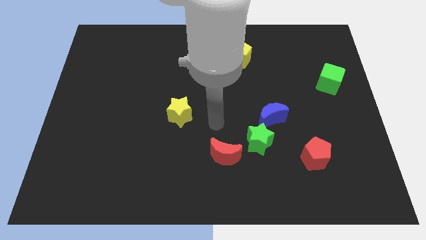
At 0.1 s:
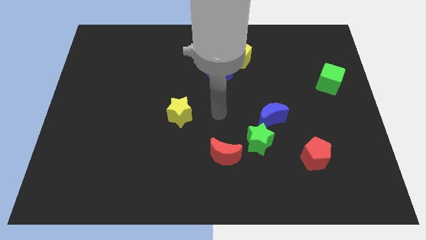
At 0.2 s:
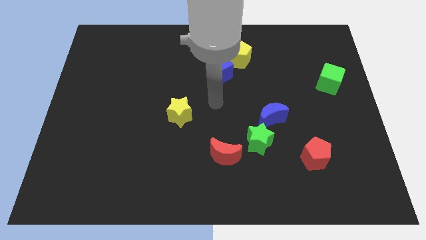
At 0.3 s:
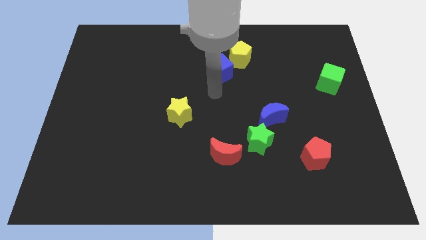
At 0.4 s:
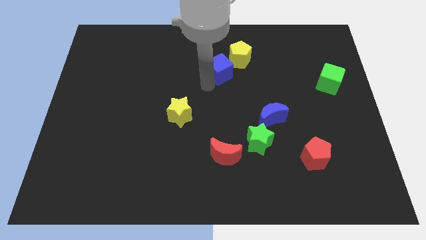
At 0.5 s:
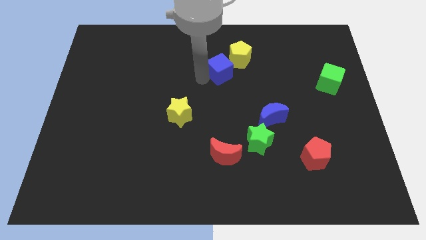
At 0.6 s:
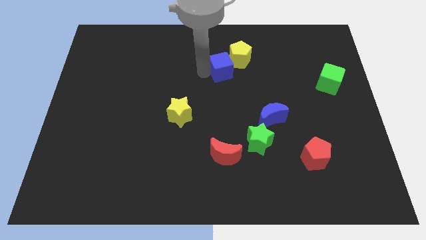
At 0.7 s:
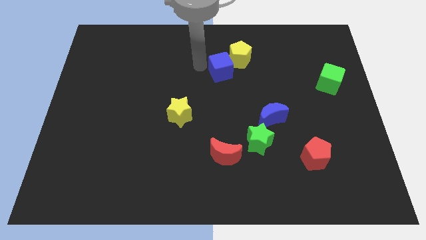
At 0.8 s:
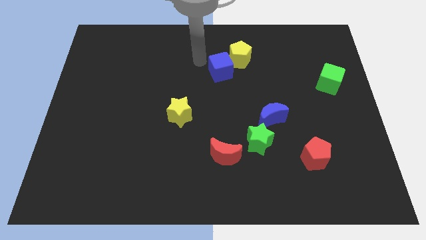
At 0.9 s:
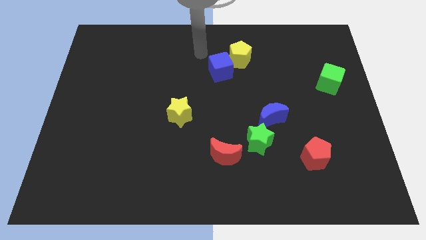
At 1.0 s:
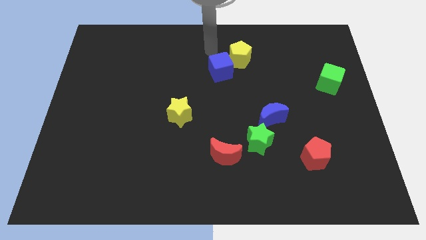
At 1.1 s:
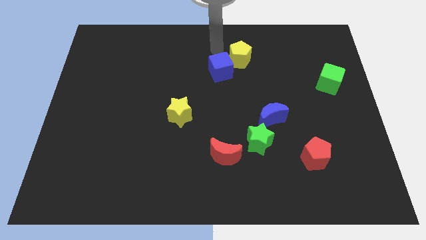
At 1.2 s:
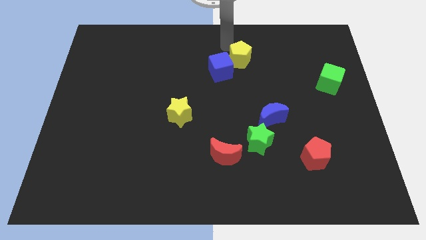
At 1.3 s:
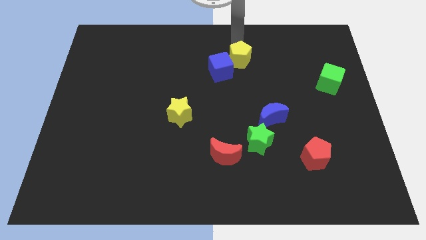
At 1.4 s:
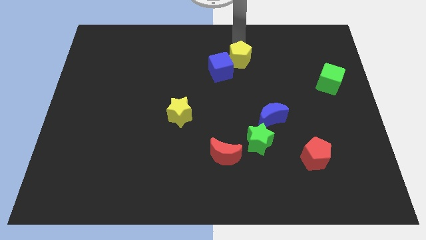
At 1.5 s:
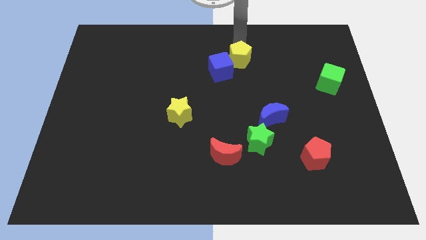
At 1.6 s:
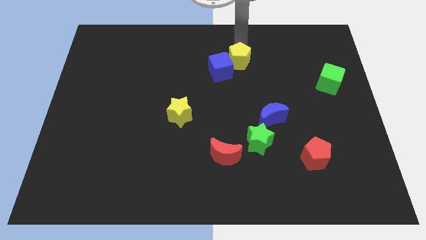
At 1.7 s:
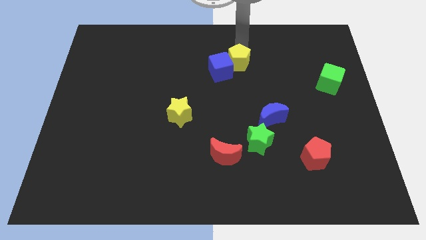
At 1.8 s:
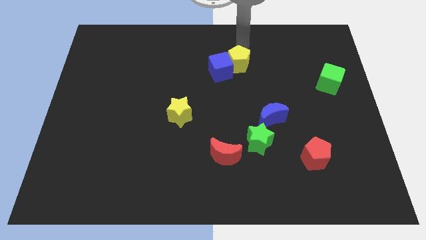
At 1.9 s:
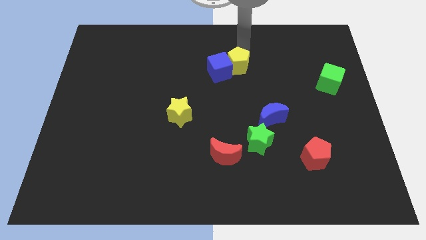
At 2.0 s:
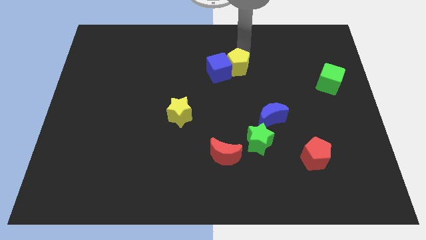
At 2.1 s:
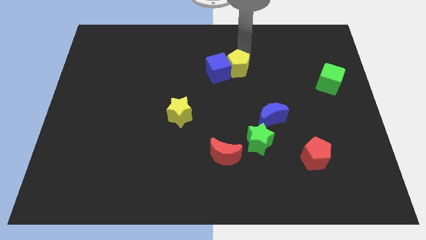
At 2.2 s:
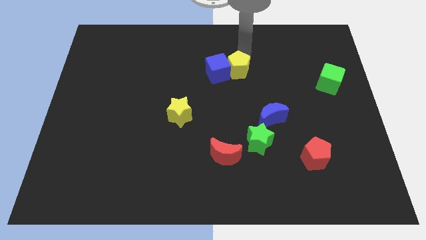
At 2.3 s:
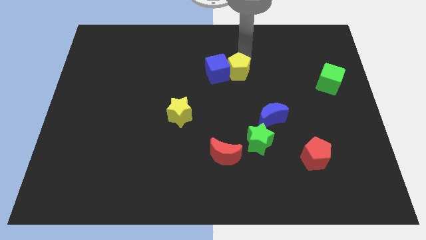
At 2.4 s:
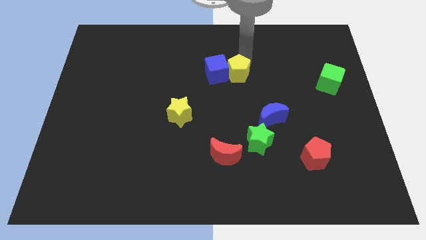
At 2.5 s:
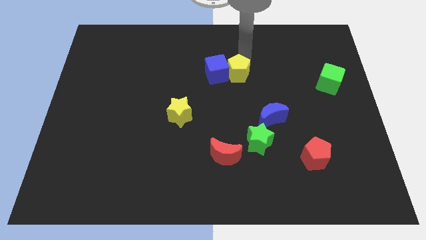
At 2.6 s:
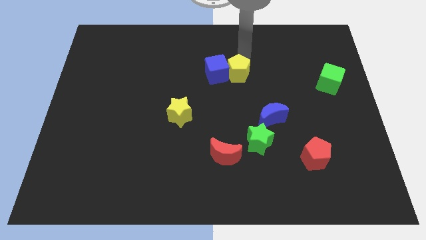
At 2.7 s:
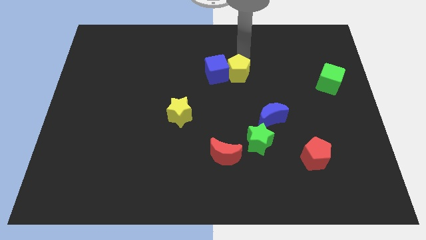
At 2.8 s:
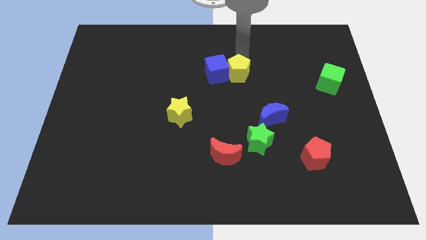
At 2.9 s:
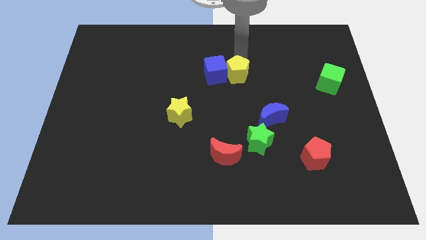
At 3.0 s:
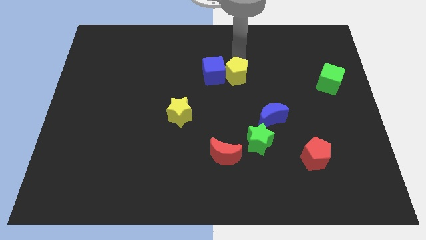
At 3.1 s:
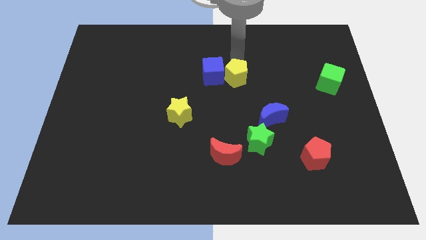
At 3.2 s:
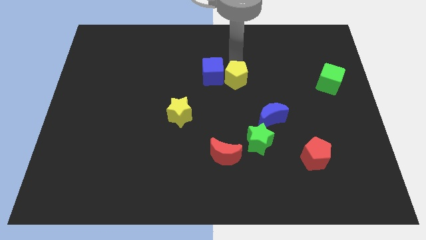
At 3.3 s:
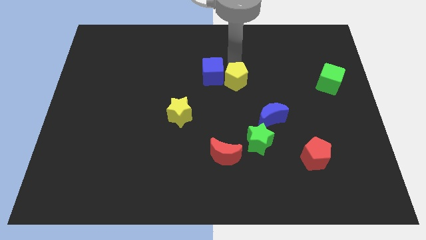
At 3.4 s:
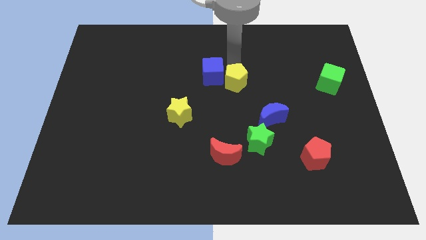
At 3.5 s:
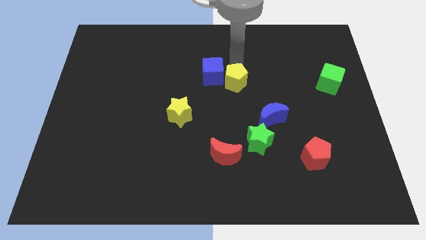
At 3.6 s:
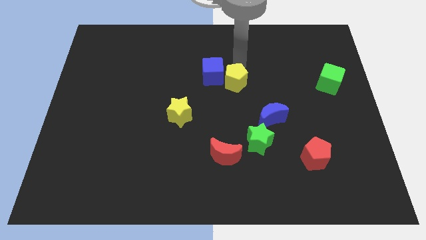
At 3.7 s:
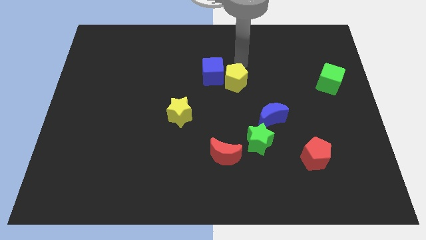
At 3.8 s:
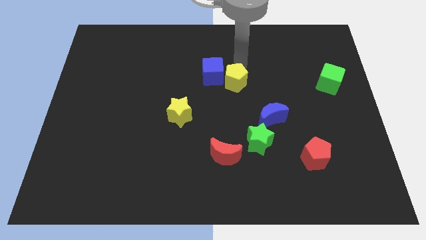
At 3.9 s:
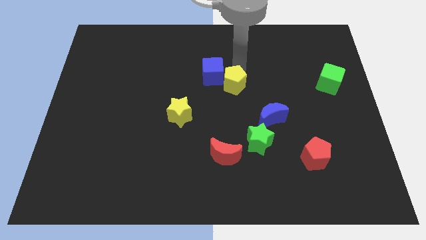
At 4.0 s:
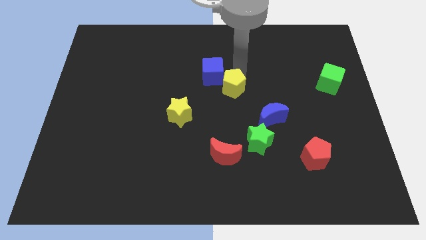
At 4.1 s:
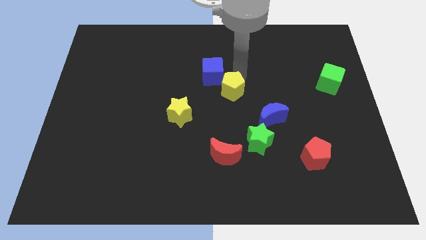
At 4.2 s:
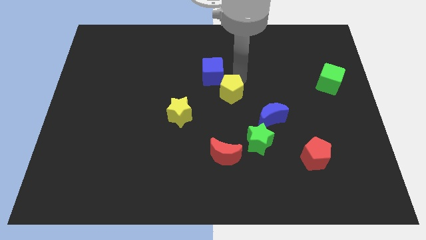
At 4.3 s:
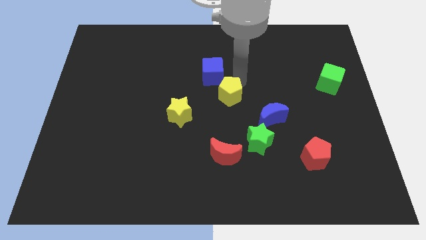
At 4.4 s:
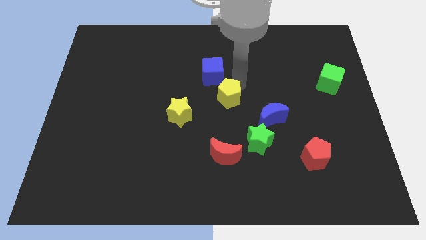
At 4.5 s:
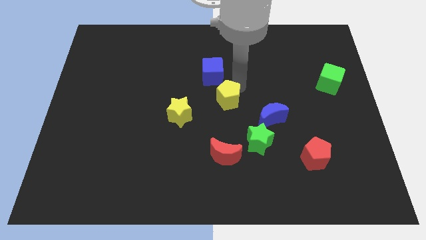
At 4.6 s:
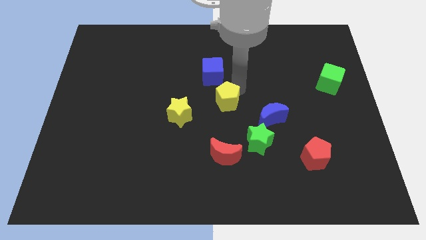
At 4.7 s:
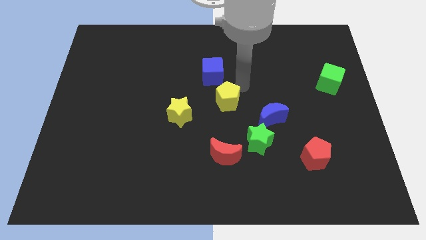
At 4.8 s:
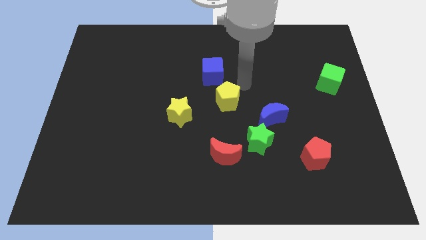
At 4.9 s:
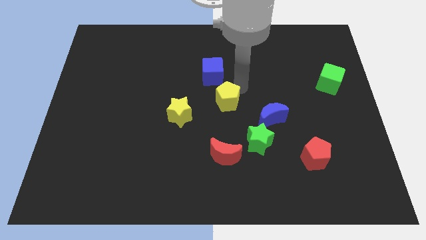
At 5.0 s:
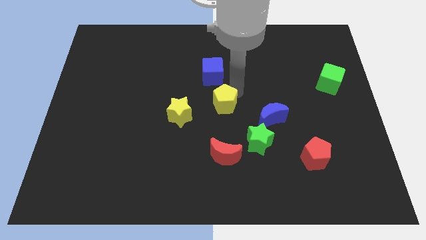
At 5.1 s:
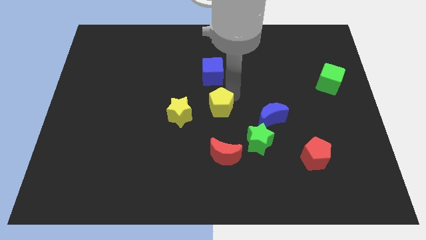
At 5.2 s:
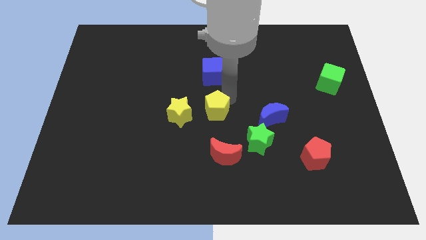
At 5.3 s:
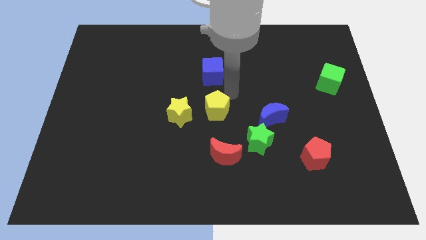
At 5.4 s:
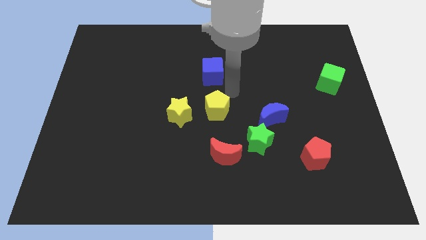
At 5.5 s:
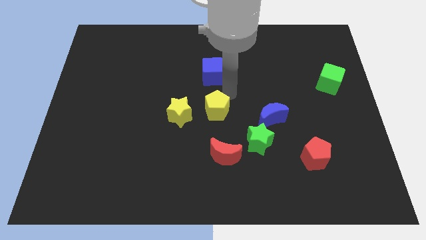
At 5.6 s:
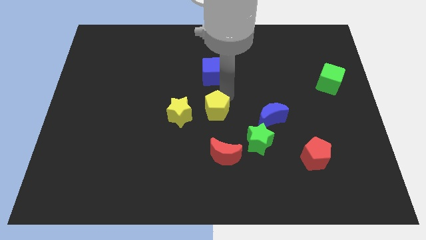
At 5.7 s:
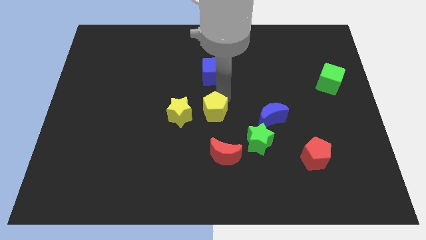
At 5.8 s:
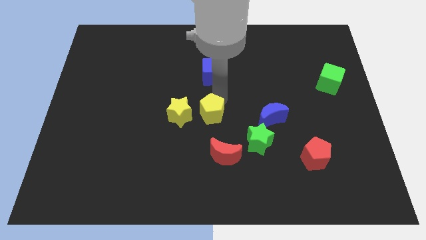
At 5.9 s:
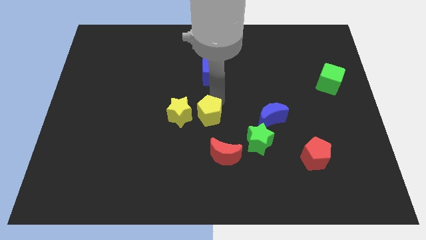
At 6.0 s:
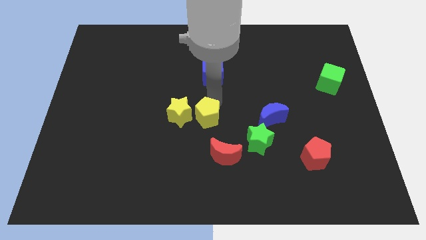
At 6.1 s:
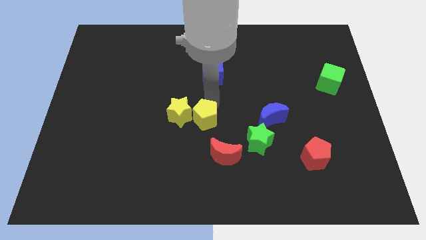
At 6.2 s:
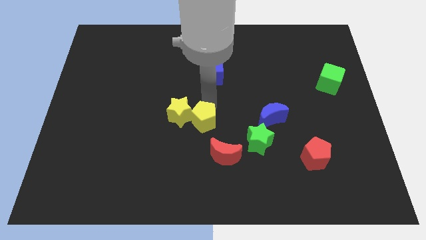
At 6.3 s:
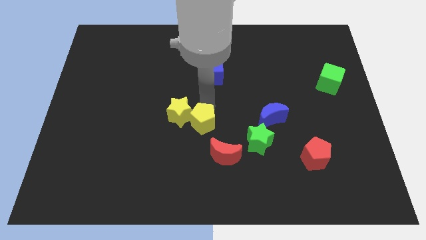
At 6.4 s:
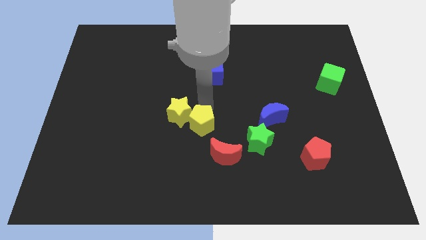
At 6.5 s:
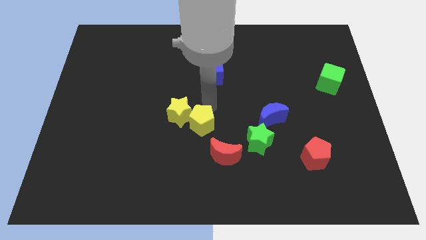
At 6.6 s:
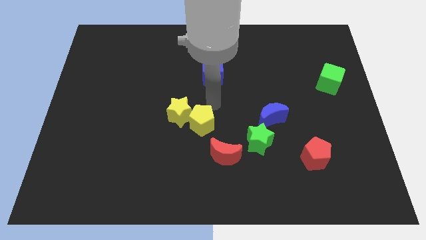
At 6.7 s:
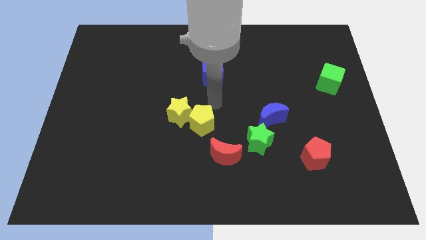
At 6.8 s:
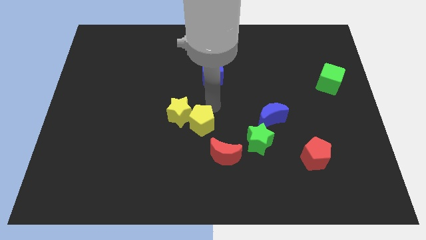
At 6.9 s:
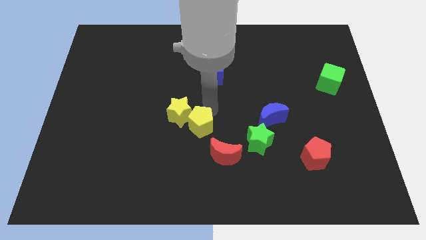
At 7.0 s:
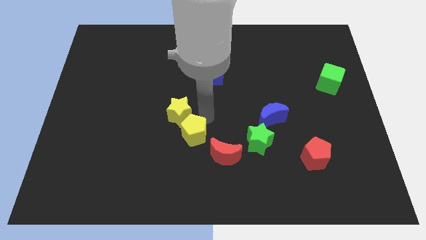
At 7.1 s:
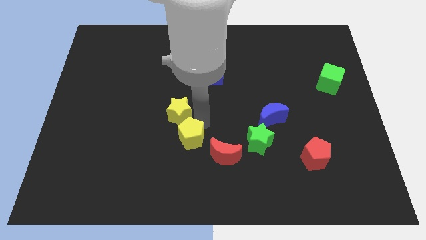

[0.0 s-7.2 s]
move the yellow pentagon left of the red moon

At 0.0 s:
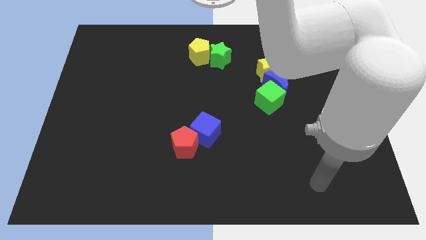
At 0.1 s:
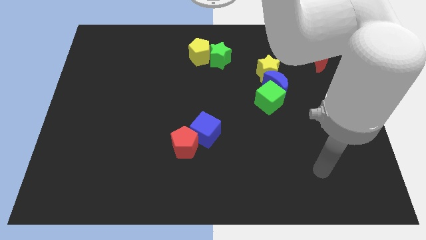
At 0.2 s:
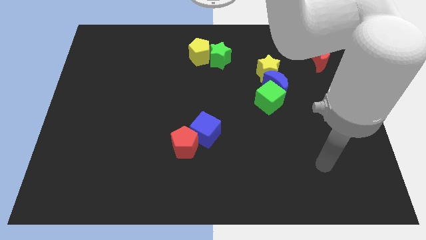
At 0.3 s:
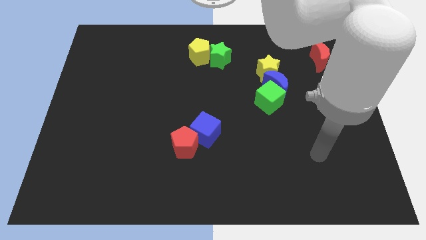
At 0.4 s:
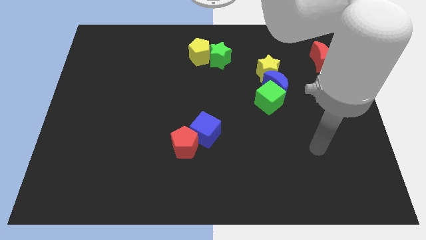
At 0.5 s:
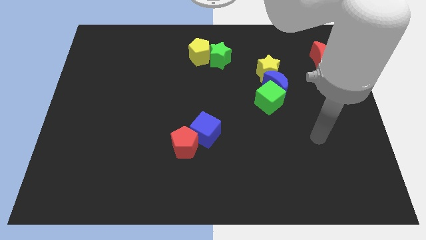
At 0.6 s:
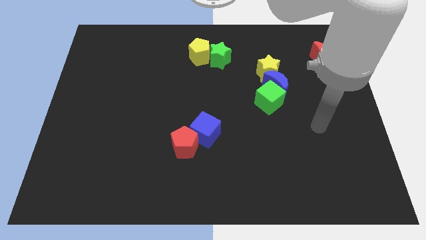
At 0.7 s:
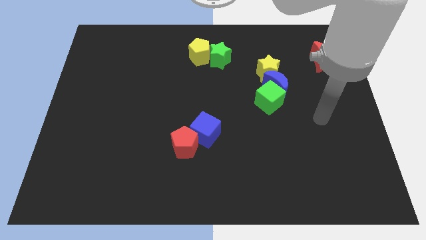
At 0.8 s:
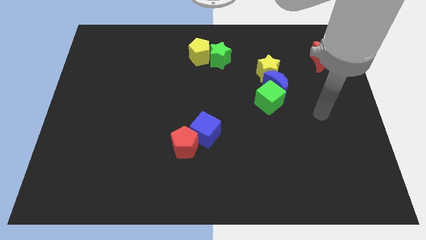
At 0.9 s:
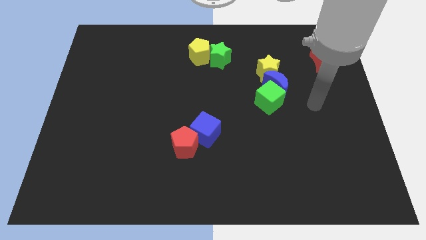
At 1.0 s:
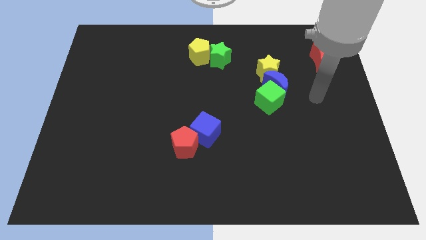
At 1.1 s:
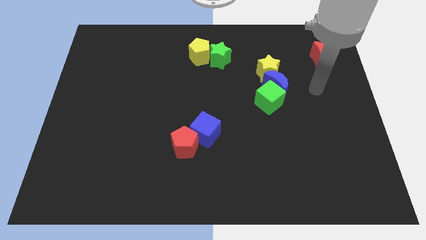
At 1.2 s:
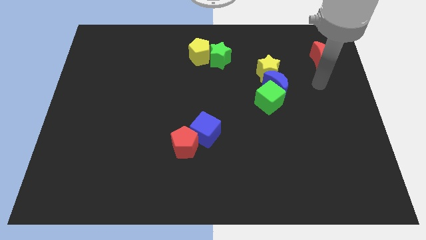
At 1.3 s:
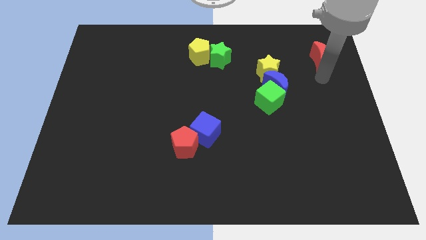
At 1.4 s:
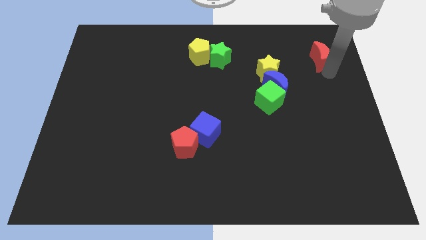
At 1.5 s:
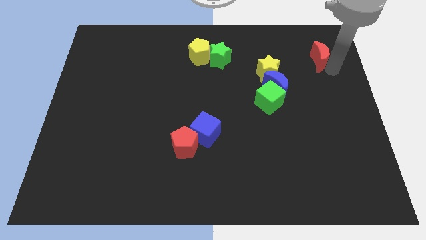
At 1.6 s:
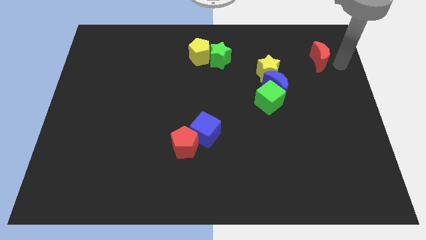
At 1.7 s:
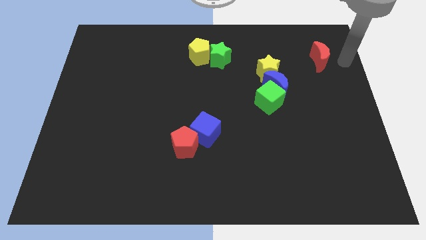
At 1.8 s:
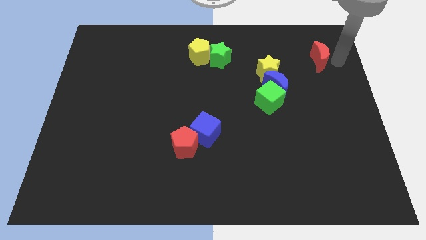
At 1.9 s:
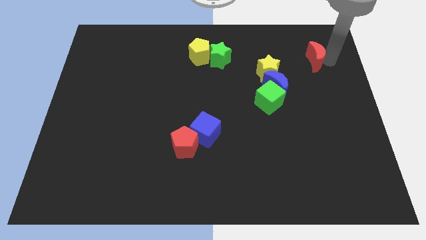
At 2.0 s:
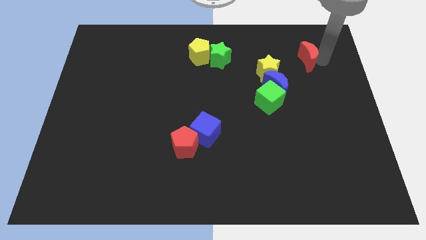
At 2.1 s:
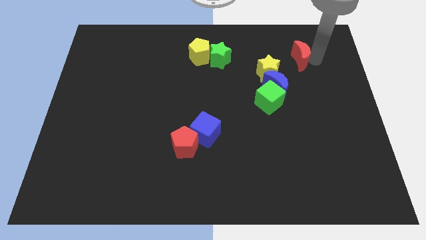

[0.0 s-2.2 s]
move the red moon to the top right side of the yellow star
